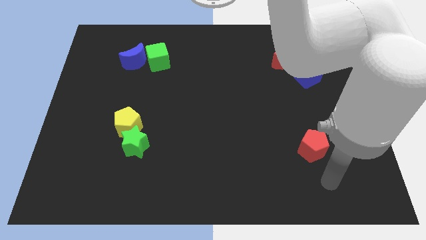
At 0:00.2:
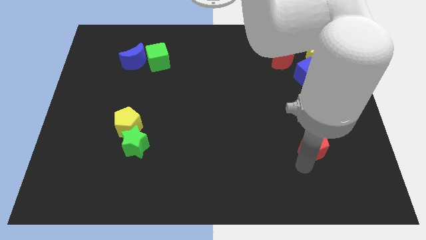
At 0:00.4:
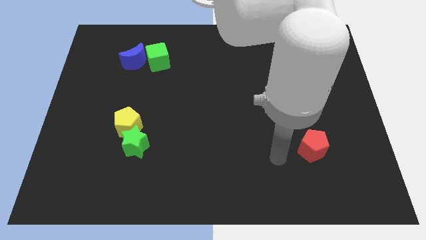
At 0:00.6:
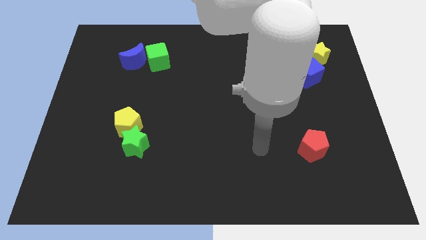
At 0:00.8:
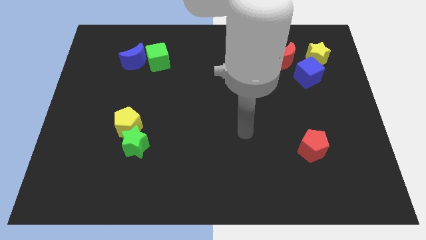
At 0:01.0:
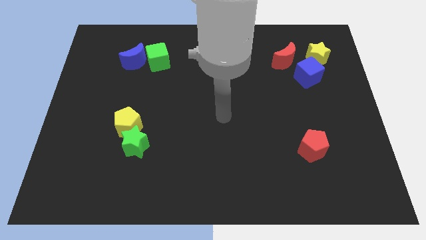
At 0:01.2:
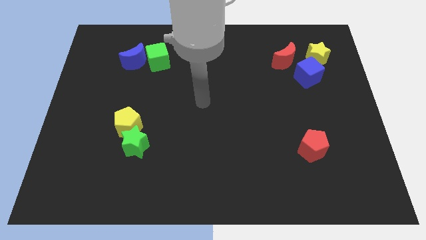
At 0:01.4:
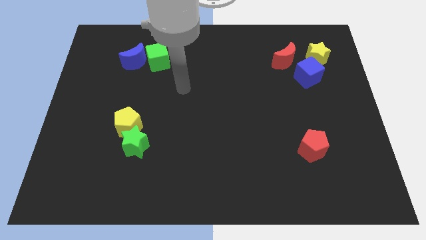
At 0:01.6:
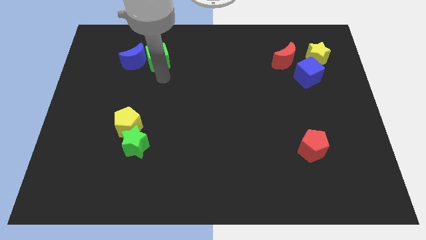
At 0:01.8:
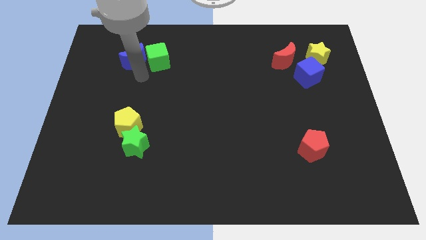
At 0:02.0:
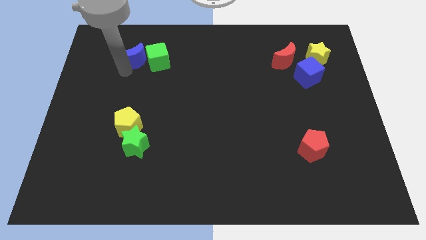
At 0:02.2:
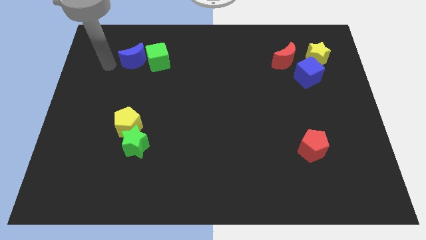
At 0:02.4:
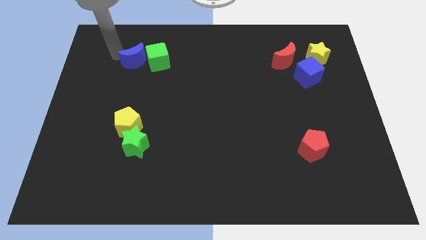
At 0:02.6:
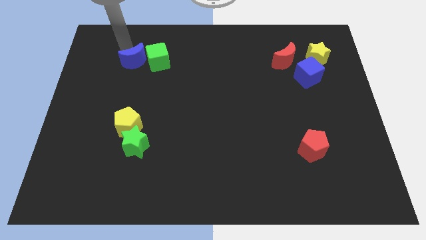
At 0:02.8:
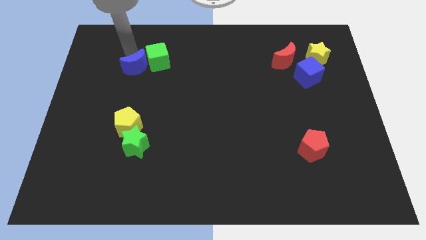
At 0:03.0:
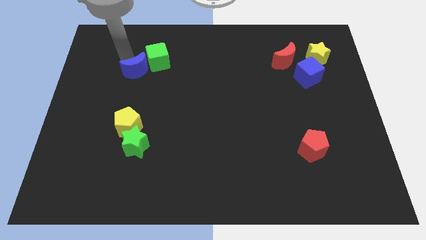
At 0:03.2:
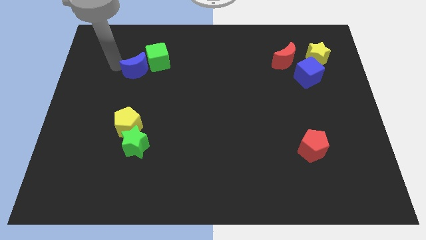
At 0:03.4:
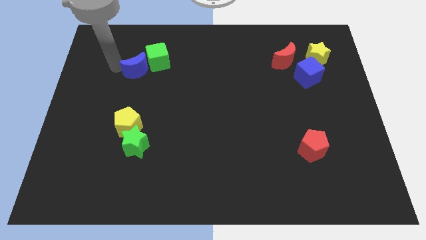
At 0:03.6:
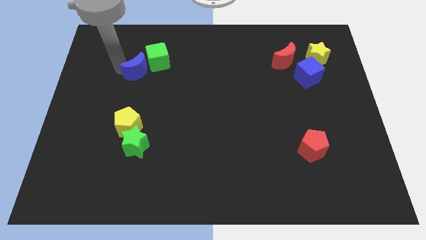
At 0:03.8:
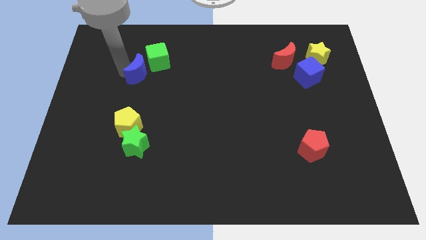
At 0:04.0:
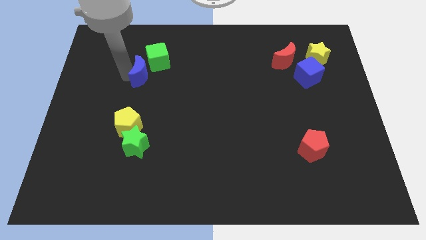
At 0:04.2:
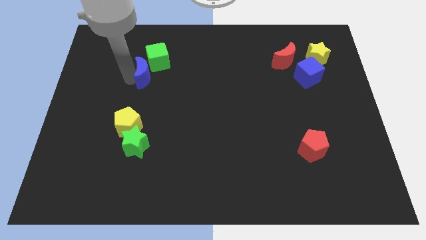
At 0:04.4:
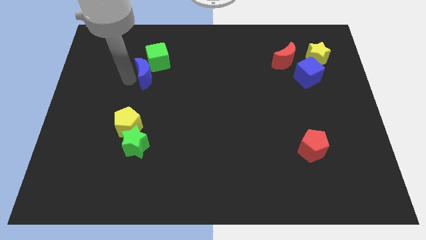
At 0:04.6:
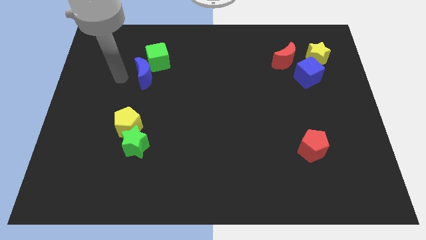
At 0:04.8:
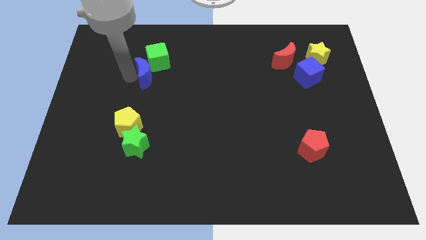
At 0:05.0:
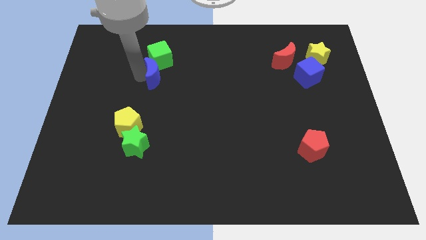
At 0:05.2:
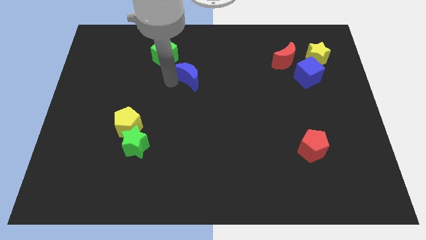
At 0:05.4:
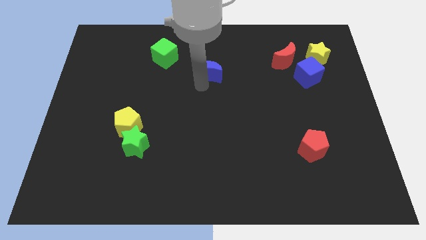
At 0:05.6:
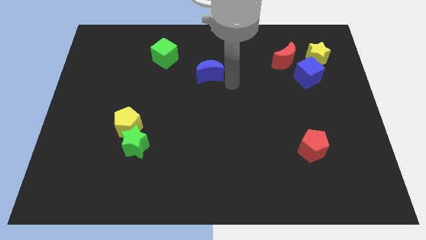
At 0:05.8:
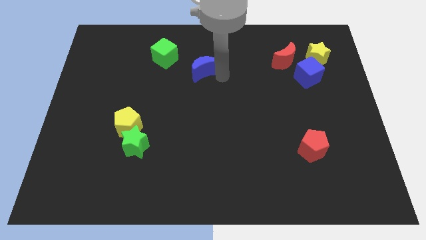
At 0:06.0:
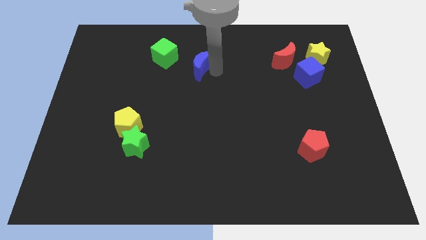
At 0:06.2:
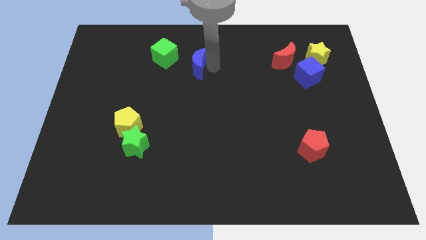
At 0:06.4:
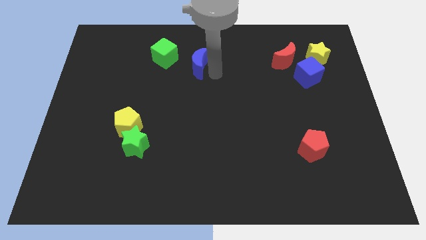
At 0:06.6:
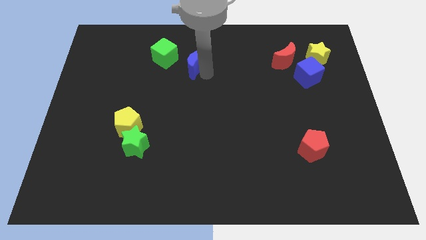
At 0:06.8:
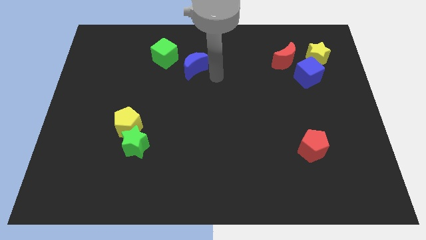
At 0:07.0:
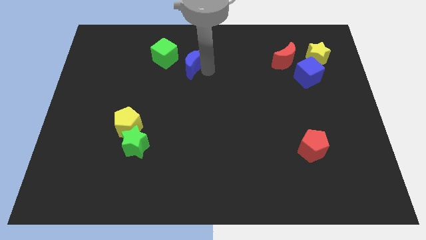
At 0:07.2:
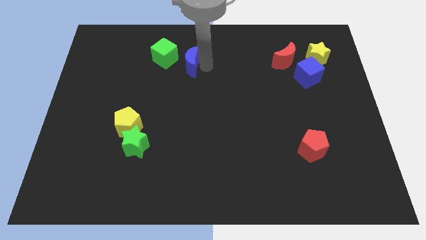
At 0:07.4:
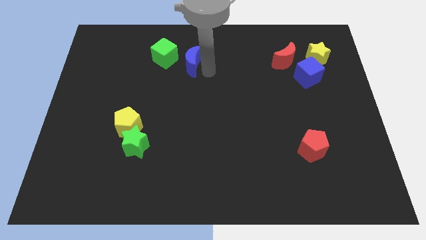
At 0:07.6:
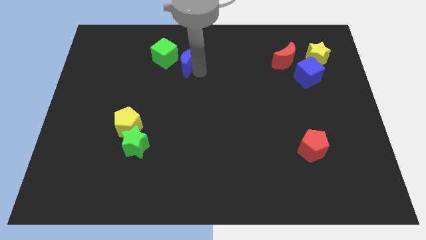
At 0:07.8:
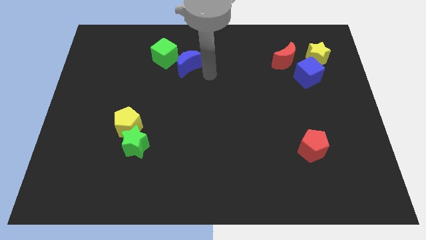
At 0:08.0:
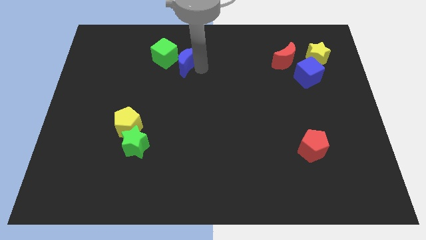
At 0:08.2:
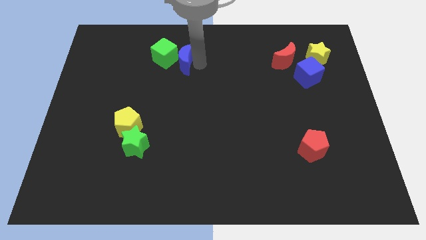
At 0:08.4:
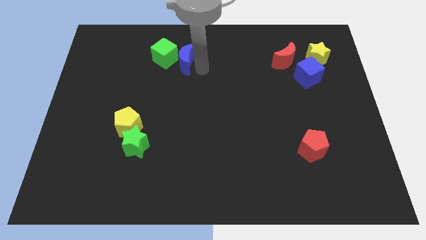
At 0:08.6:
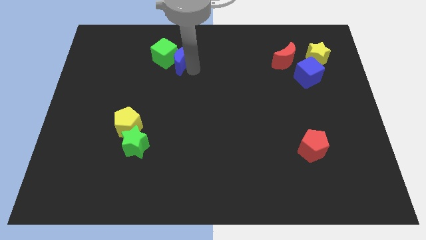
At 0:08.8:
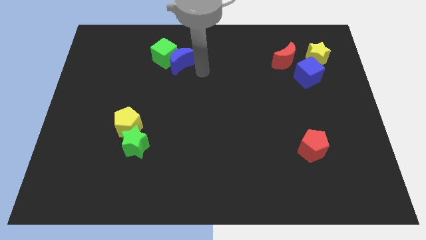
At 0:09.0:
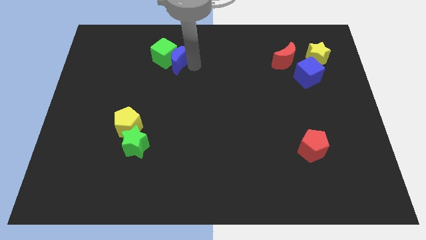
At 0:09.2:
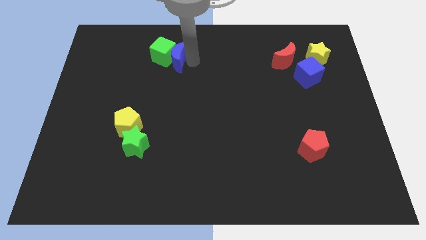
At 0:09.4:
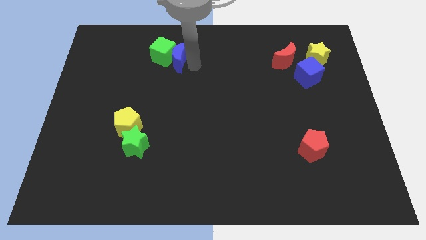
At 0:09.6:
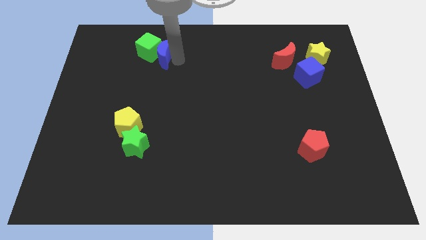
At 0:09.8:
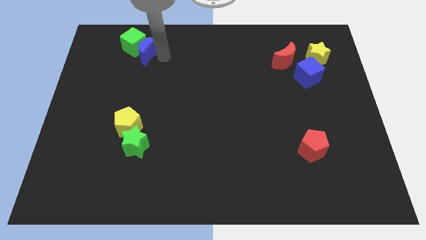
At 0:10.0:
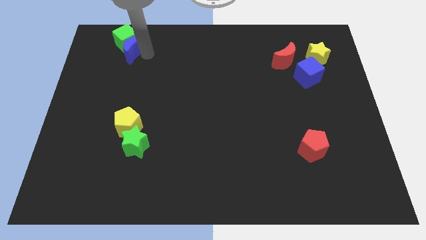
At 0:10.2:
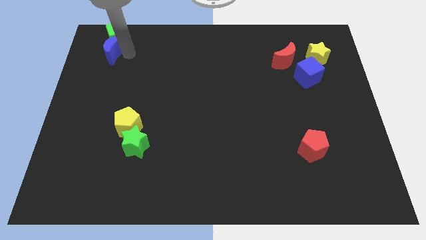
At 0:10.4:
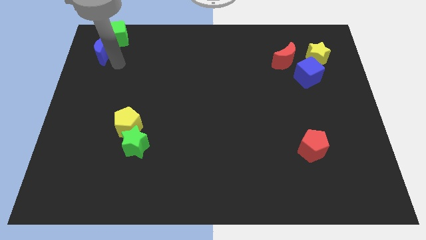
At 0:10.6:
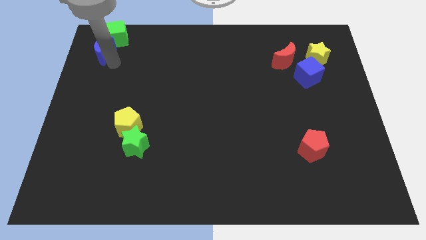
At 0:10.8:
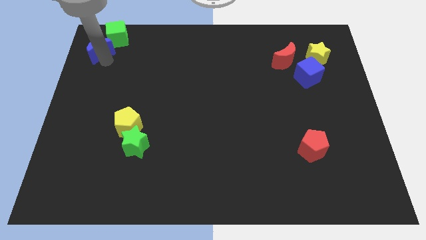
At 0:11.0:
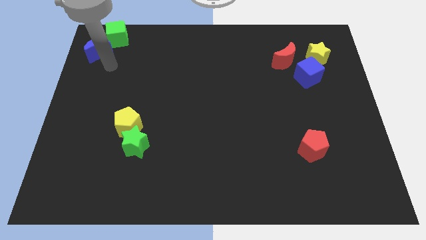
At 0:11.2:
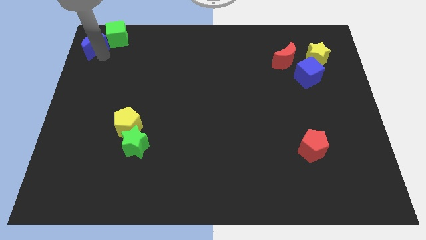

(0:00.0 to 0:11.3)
move the blue moon to the upper left corner

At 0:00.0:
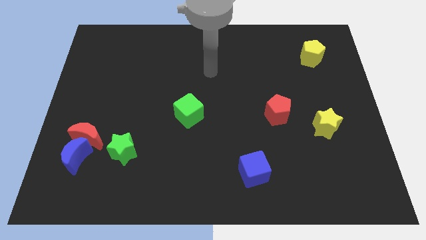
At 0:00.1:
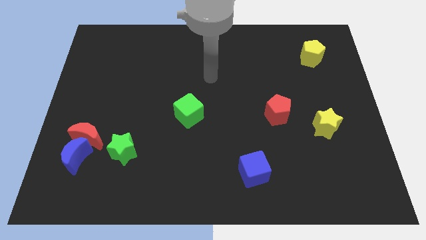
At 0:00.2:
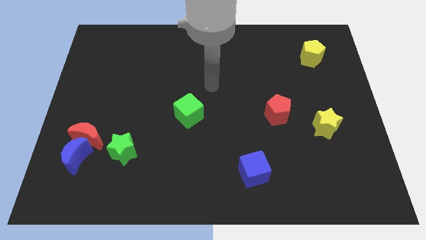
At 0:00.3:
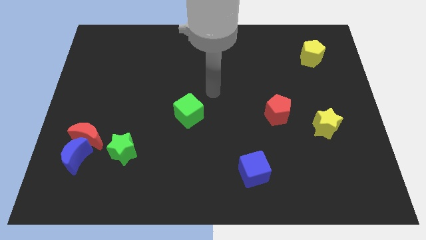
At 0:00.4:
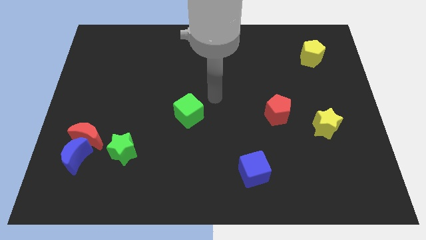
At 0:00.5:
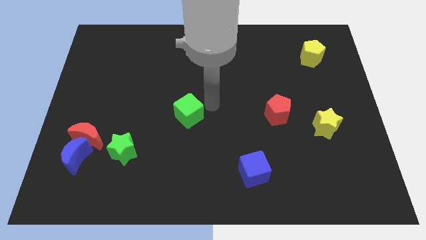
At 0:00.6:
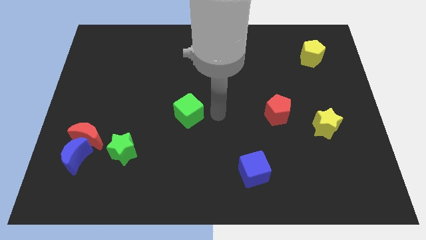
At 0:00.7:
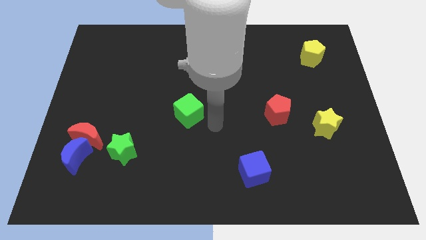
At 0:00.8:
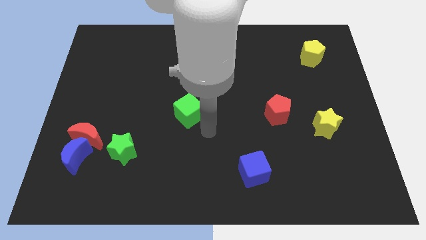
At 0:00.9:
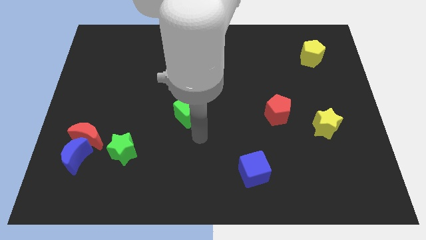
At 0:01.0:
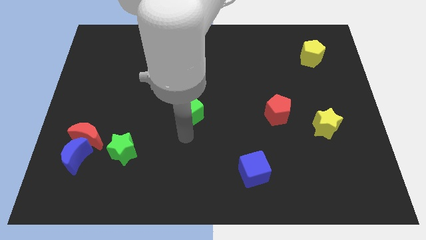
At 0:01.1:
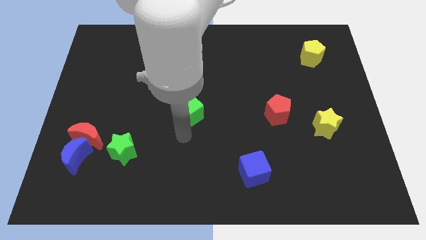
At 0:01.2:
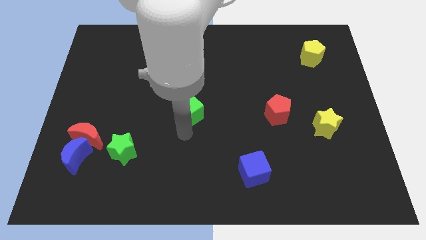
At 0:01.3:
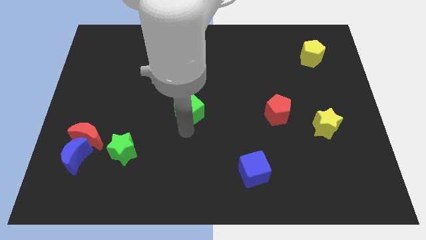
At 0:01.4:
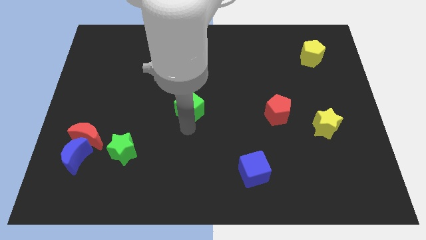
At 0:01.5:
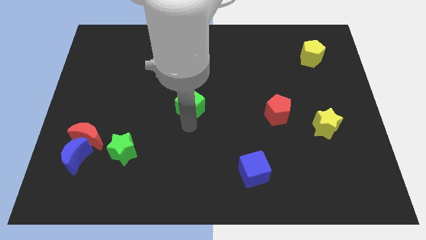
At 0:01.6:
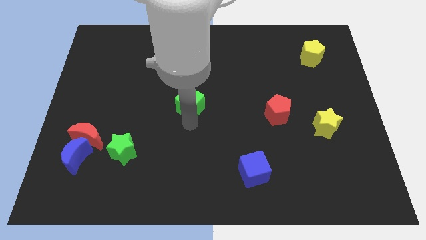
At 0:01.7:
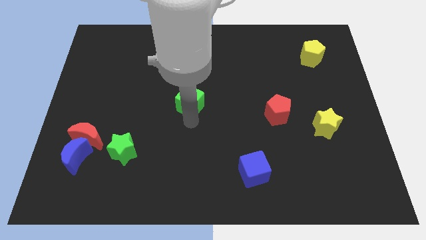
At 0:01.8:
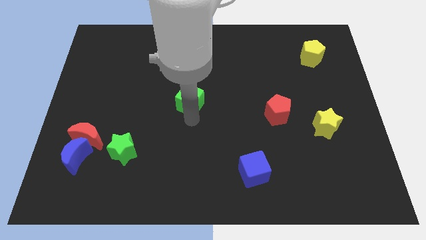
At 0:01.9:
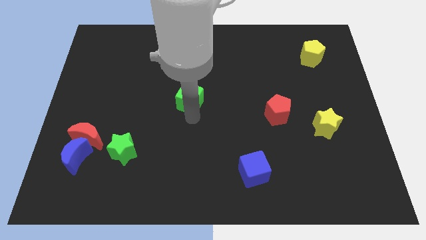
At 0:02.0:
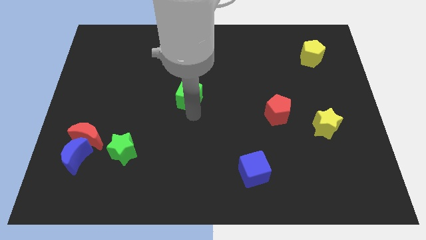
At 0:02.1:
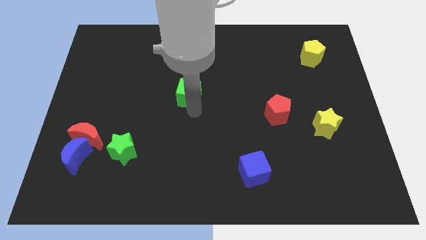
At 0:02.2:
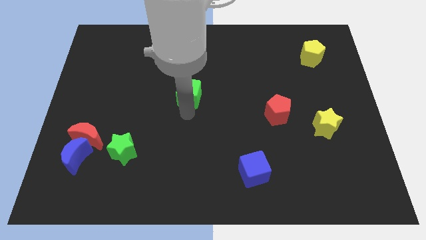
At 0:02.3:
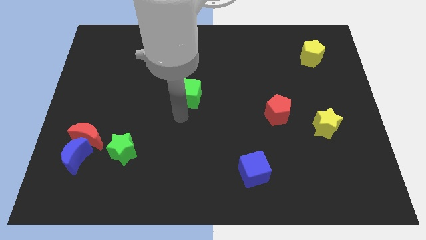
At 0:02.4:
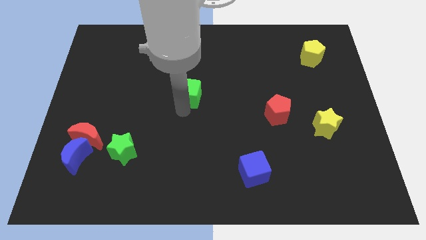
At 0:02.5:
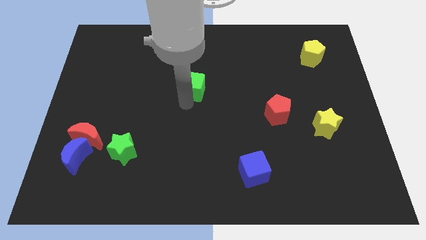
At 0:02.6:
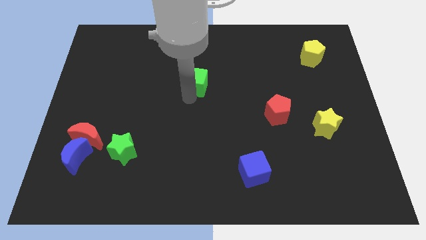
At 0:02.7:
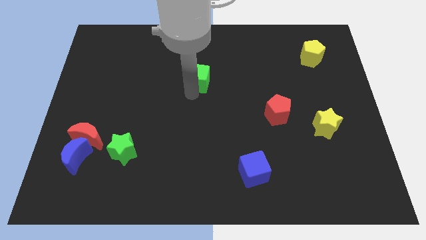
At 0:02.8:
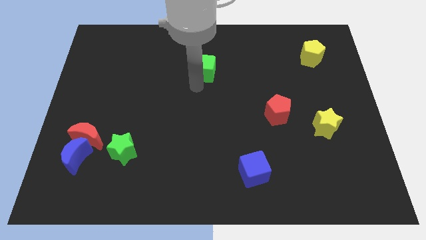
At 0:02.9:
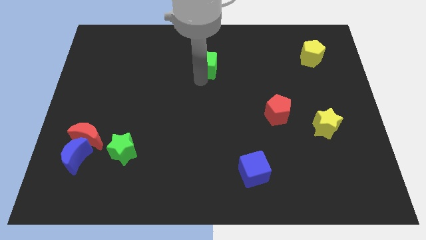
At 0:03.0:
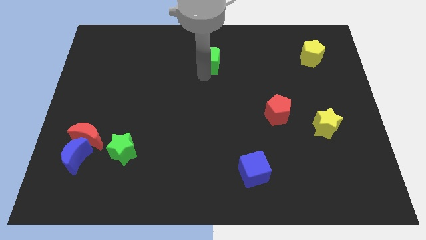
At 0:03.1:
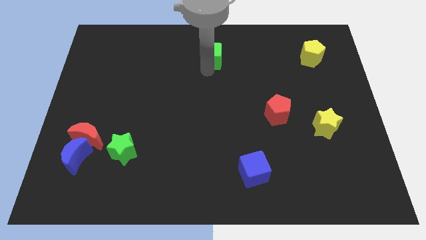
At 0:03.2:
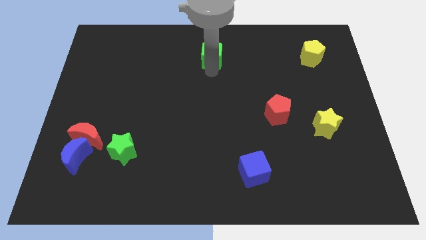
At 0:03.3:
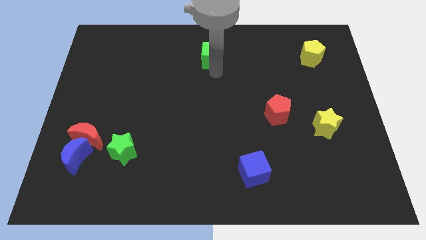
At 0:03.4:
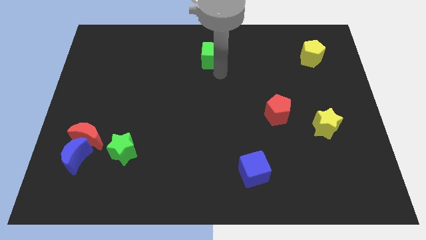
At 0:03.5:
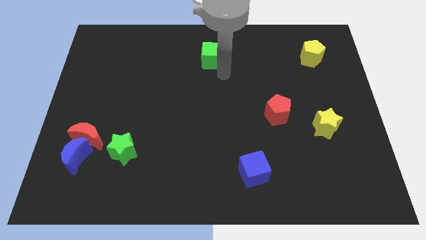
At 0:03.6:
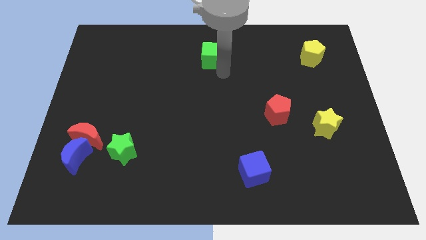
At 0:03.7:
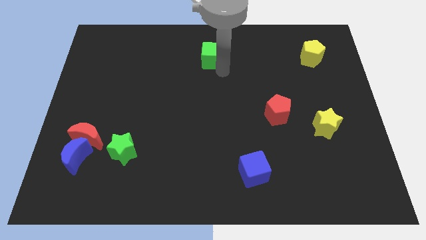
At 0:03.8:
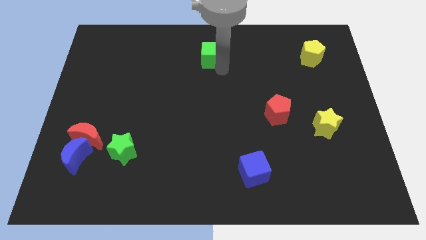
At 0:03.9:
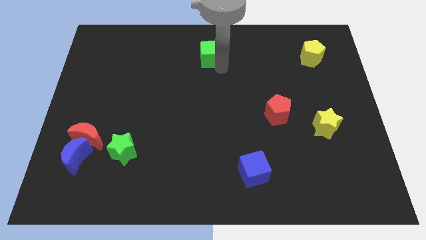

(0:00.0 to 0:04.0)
put the green cube to the top
